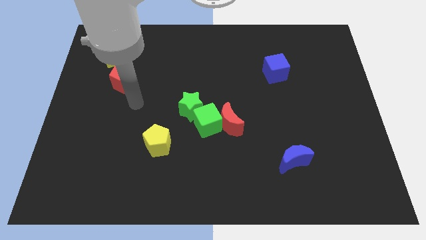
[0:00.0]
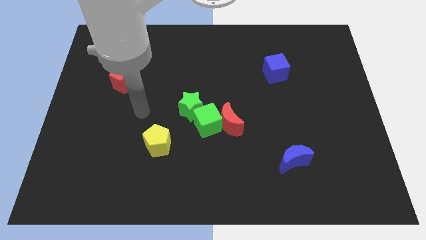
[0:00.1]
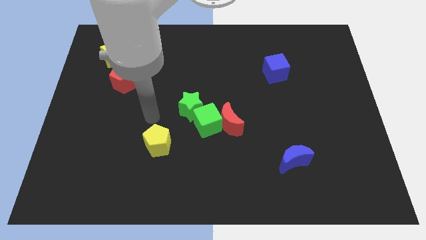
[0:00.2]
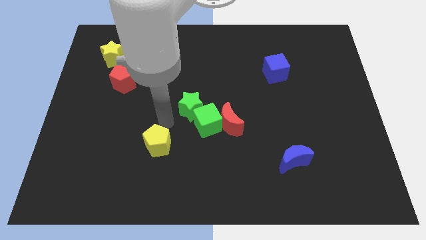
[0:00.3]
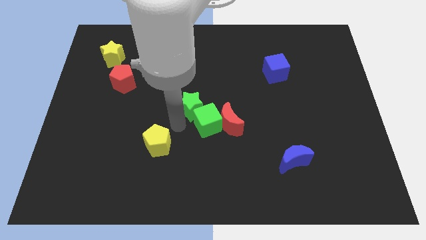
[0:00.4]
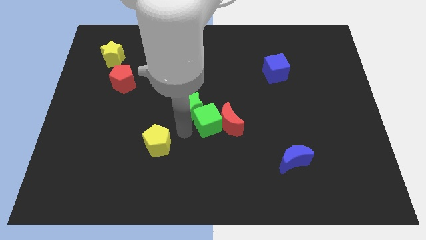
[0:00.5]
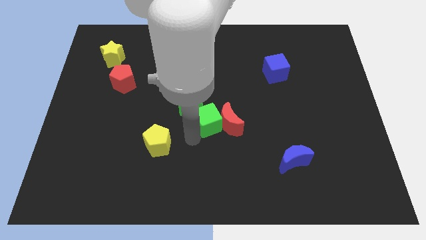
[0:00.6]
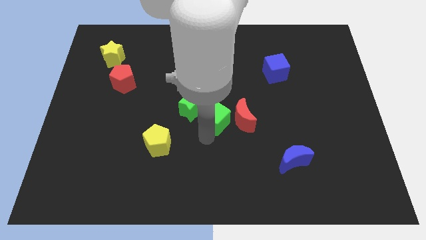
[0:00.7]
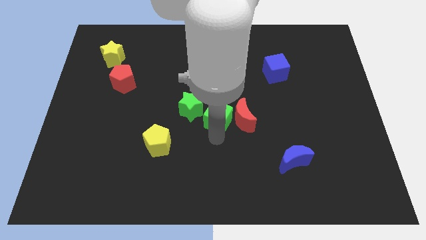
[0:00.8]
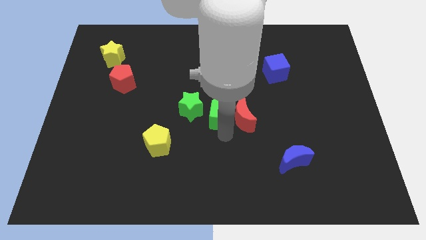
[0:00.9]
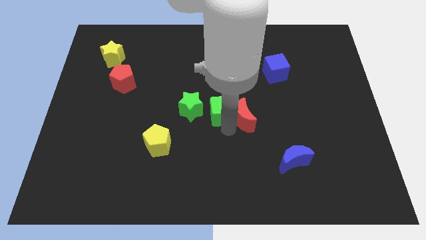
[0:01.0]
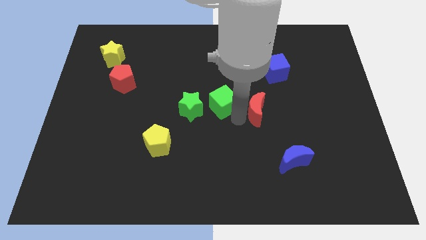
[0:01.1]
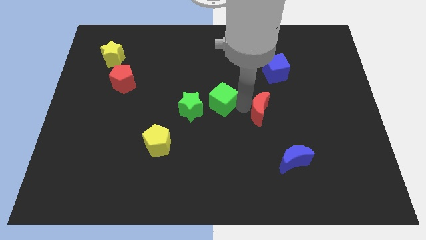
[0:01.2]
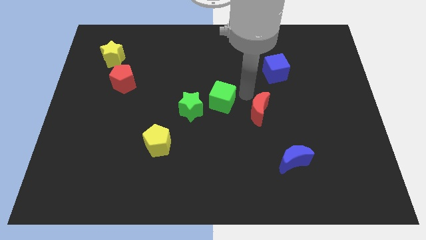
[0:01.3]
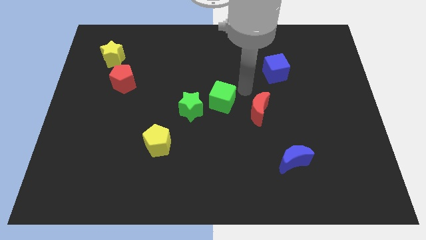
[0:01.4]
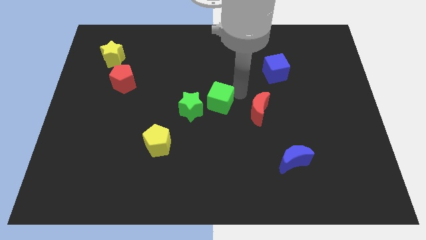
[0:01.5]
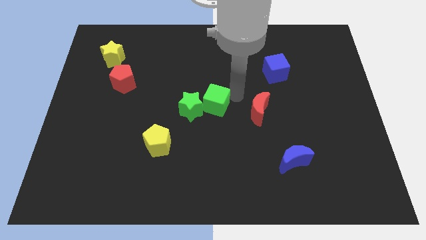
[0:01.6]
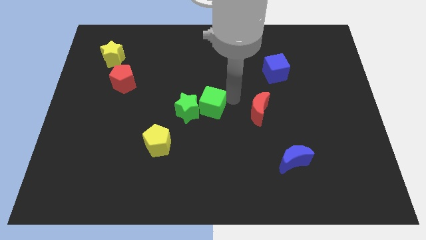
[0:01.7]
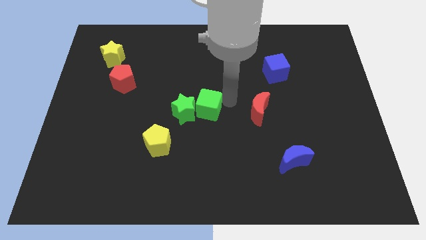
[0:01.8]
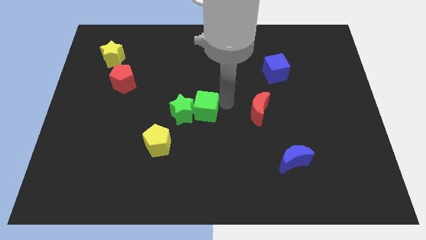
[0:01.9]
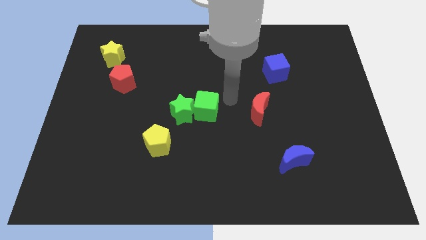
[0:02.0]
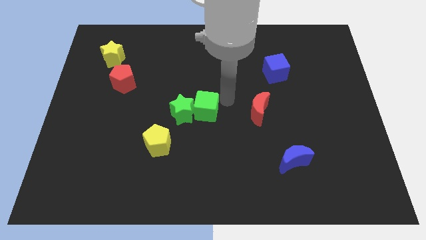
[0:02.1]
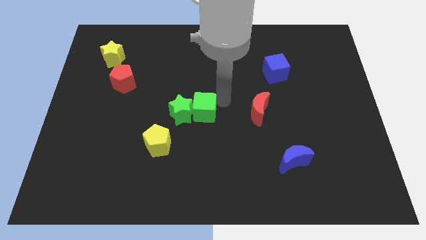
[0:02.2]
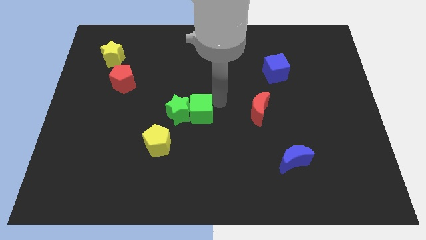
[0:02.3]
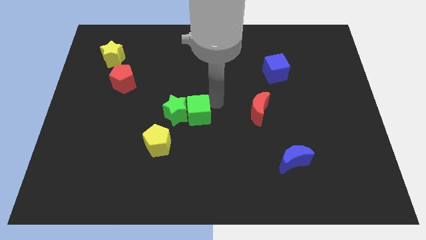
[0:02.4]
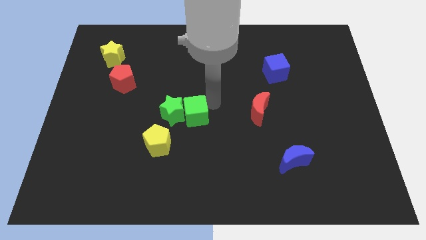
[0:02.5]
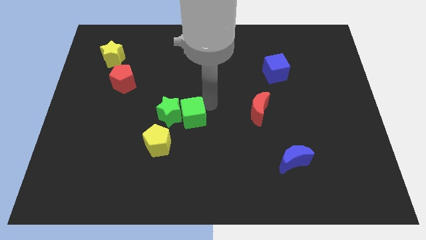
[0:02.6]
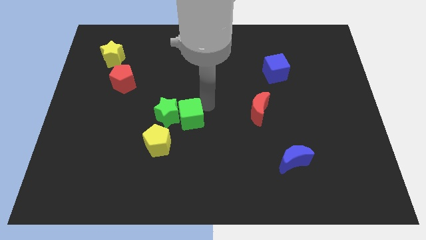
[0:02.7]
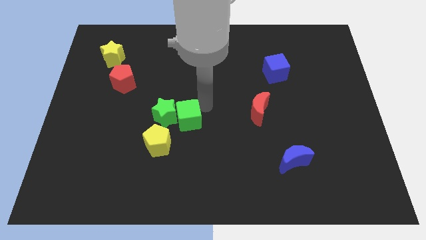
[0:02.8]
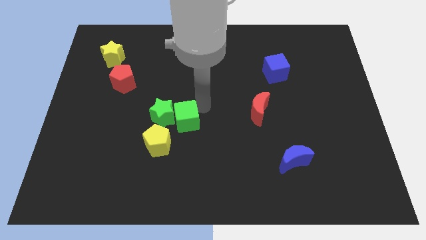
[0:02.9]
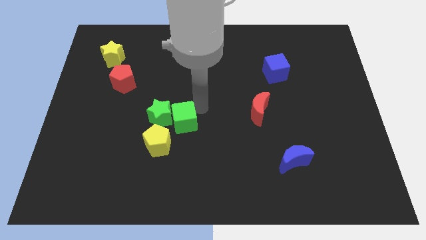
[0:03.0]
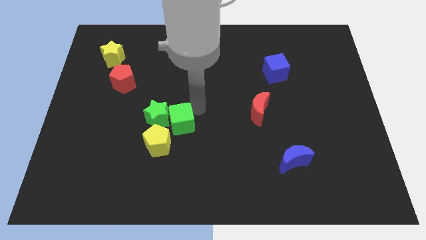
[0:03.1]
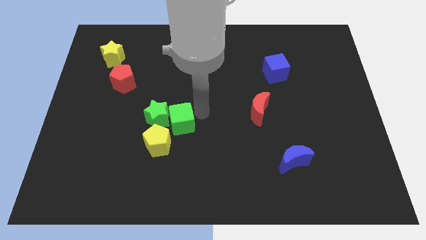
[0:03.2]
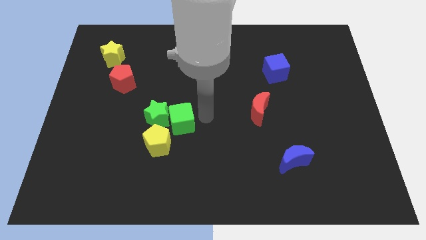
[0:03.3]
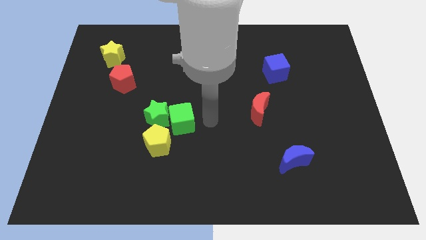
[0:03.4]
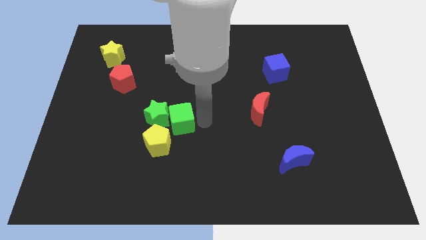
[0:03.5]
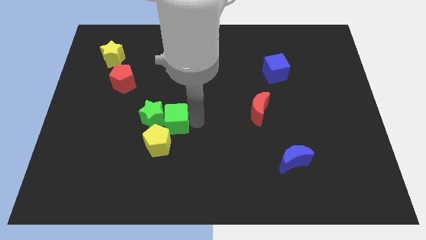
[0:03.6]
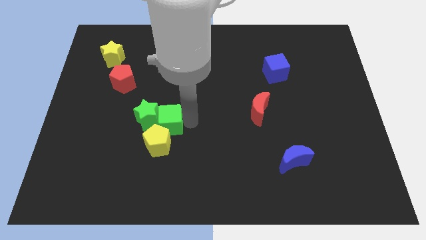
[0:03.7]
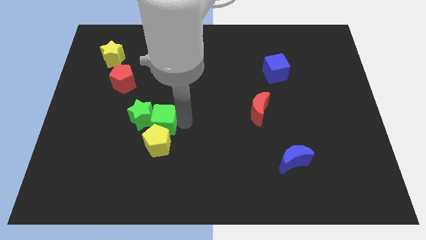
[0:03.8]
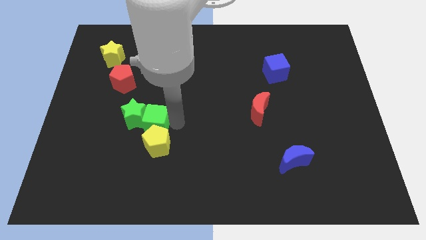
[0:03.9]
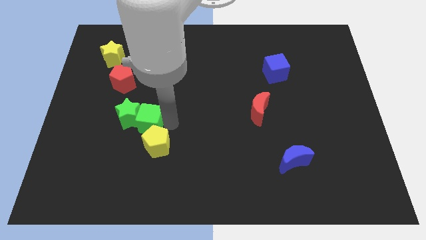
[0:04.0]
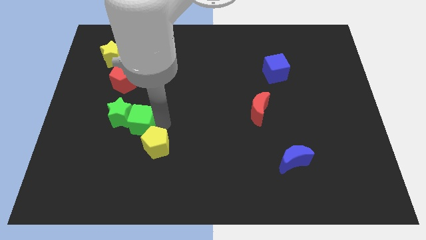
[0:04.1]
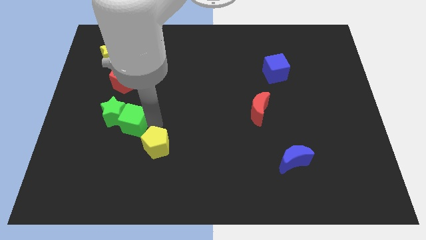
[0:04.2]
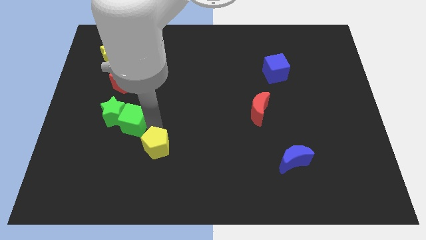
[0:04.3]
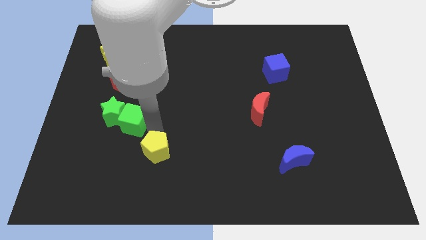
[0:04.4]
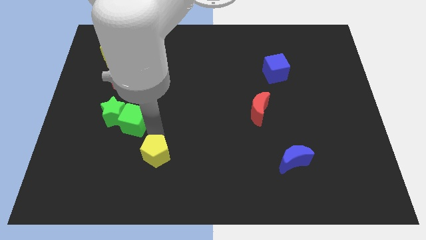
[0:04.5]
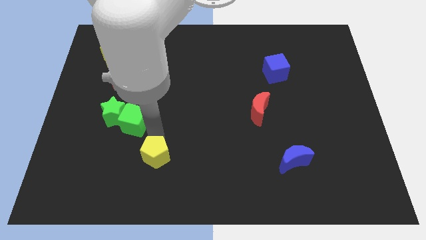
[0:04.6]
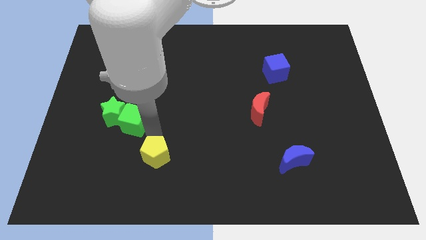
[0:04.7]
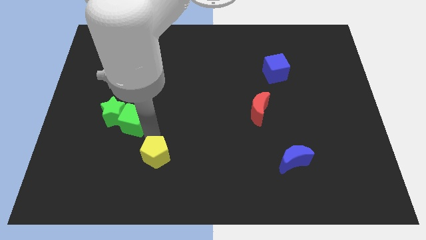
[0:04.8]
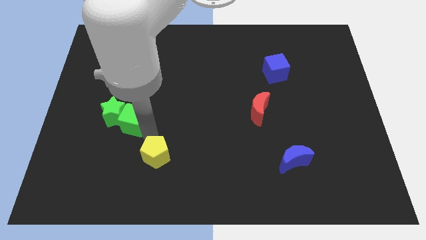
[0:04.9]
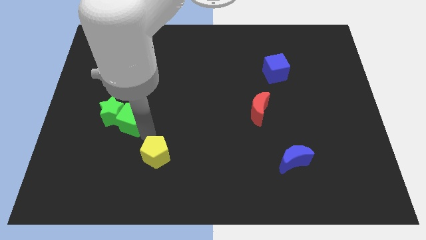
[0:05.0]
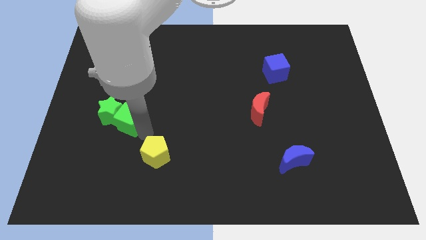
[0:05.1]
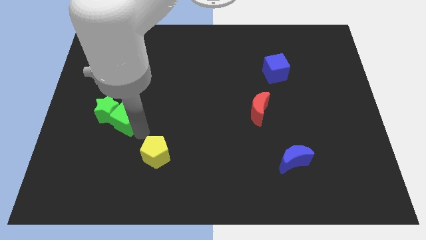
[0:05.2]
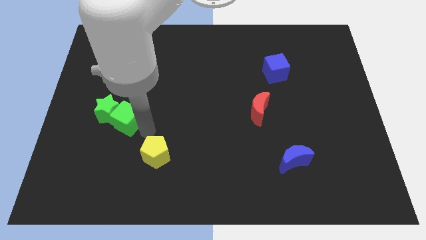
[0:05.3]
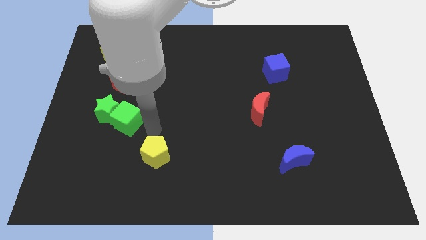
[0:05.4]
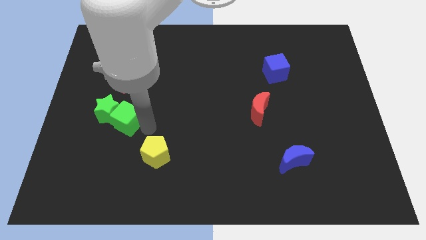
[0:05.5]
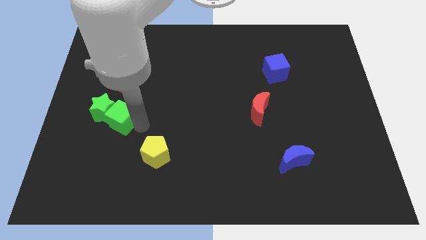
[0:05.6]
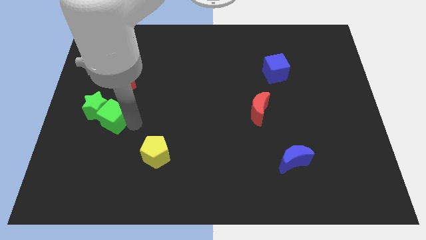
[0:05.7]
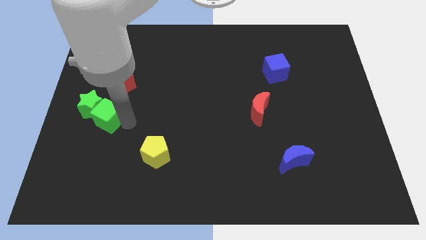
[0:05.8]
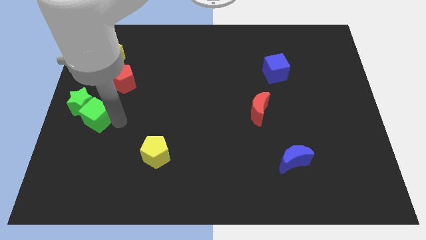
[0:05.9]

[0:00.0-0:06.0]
move the green cube to the center left

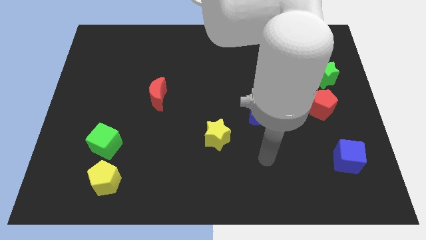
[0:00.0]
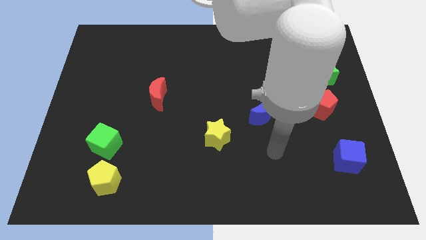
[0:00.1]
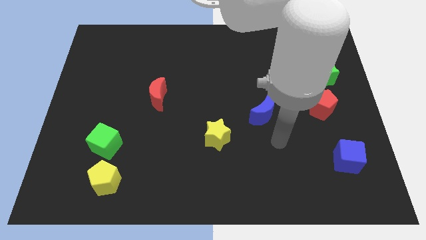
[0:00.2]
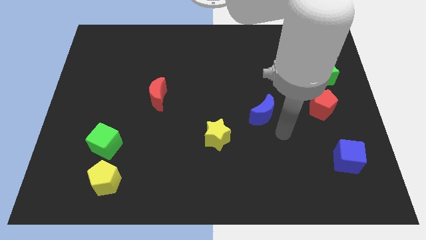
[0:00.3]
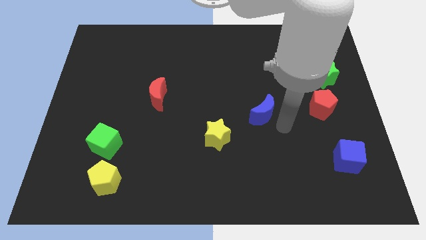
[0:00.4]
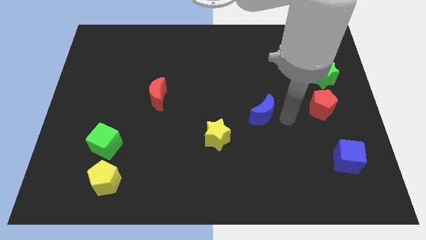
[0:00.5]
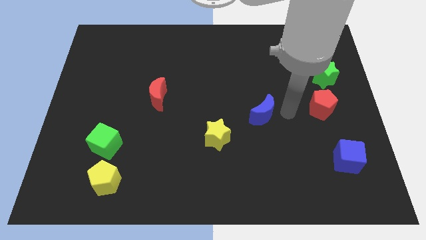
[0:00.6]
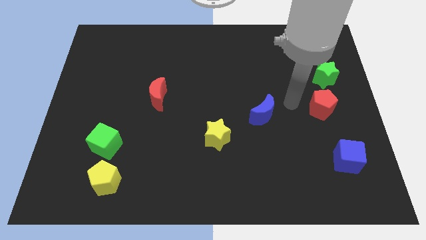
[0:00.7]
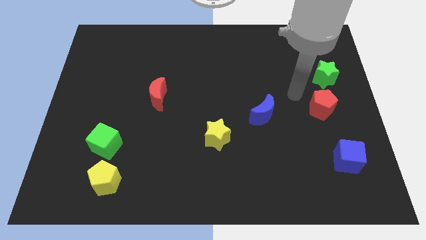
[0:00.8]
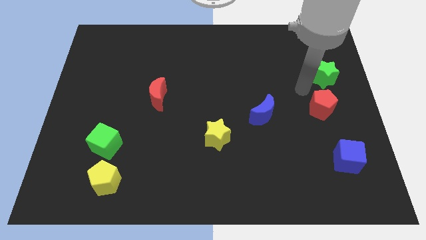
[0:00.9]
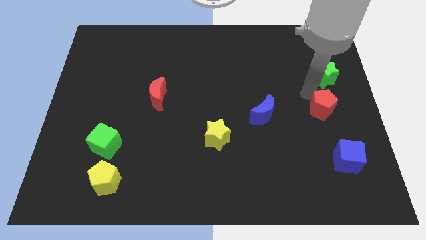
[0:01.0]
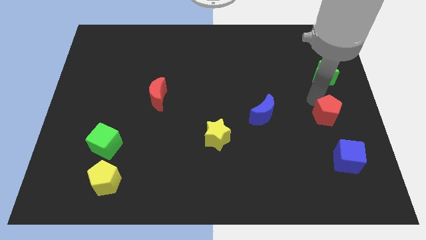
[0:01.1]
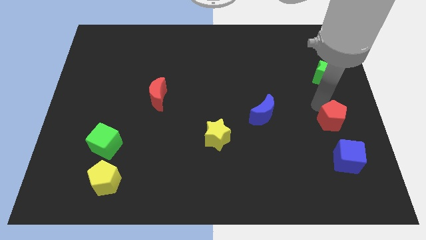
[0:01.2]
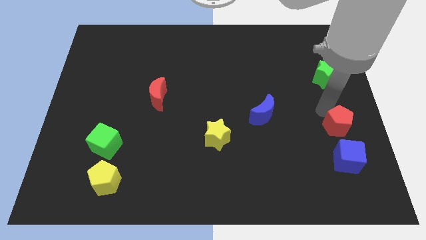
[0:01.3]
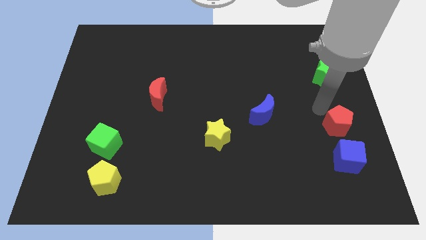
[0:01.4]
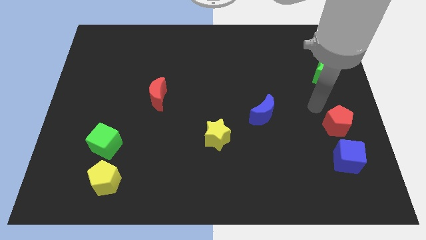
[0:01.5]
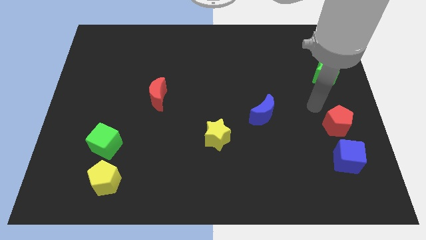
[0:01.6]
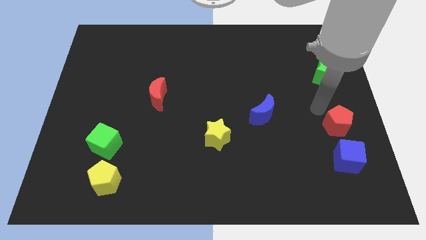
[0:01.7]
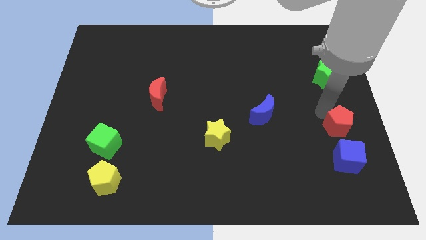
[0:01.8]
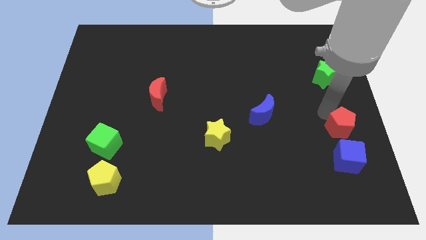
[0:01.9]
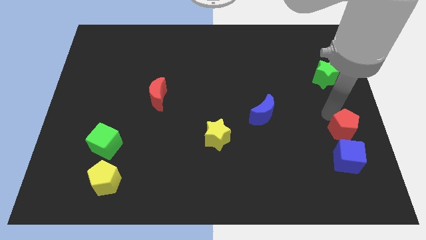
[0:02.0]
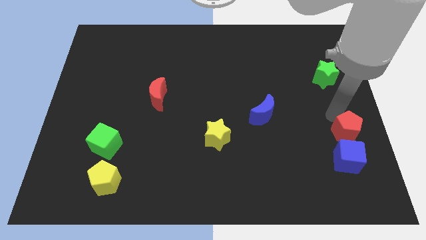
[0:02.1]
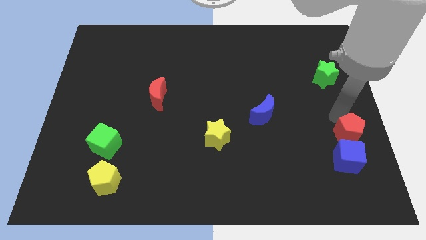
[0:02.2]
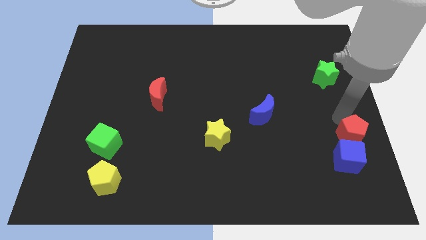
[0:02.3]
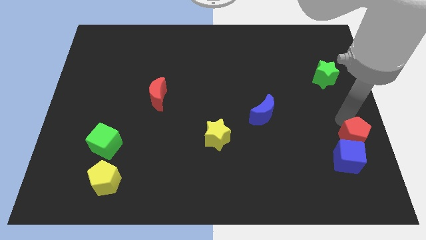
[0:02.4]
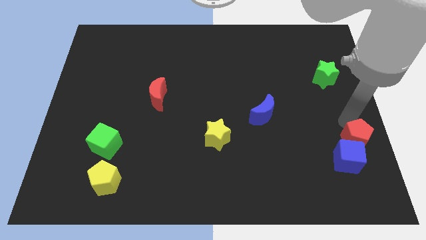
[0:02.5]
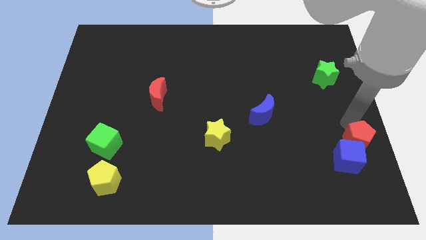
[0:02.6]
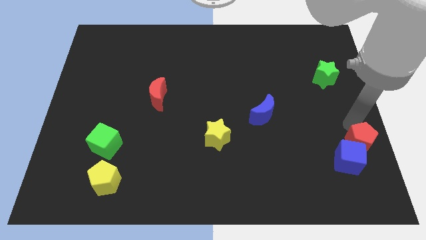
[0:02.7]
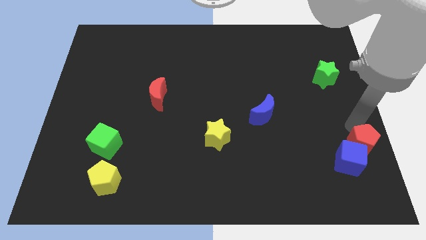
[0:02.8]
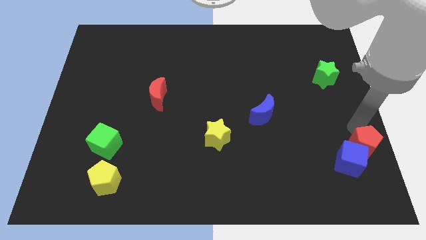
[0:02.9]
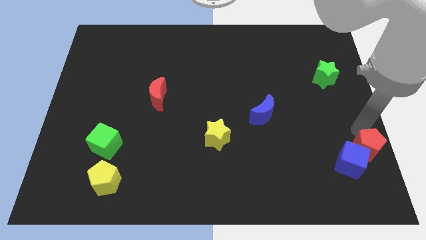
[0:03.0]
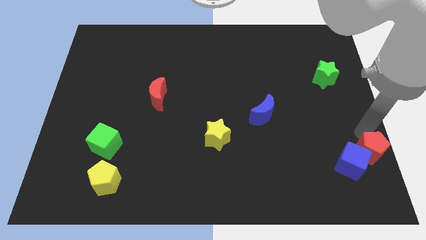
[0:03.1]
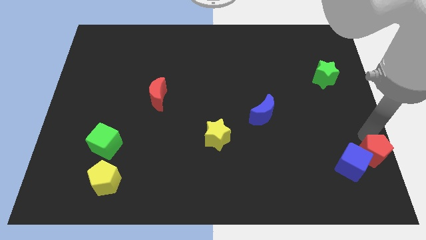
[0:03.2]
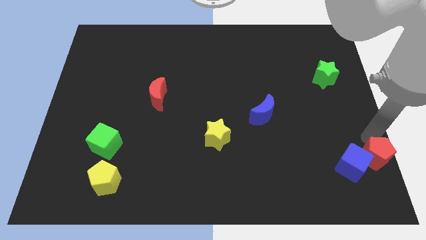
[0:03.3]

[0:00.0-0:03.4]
move the red pentagon to the lower right corner
